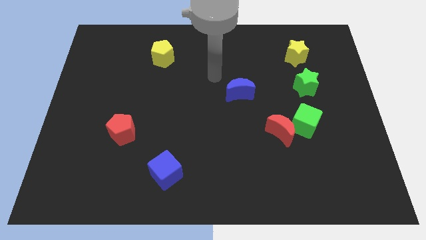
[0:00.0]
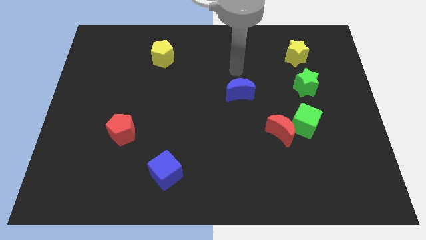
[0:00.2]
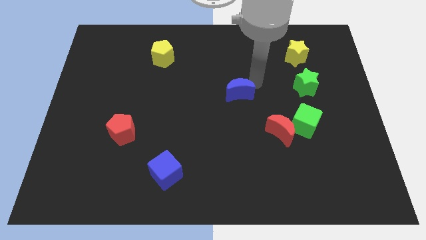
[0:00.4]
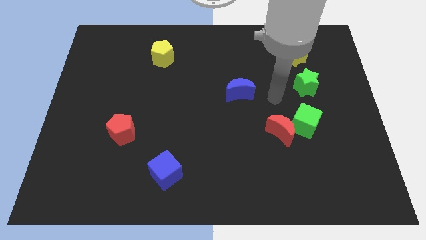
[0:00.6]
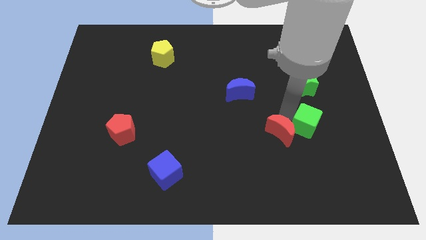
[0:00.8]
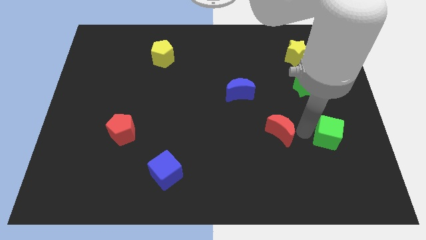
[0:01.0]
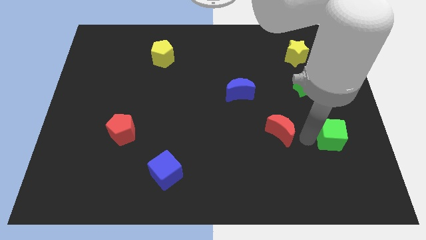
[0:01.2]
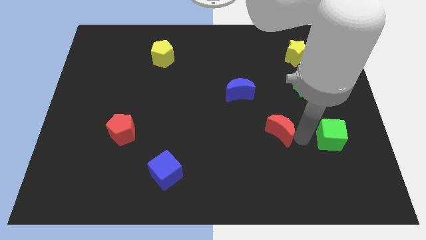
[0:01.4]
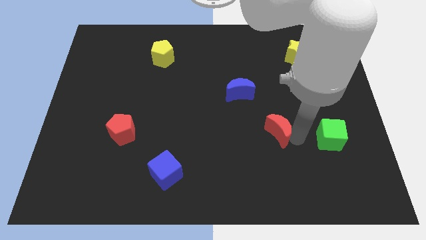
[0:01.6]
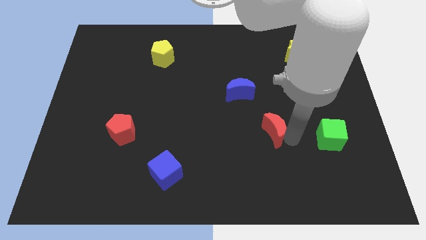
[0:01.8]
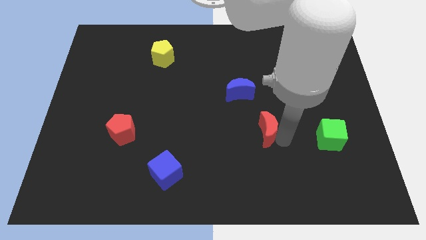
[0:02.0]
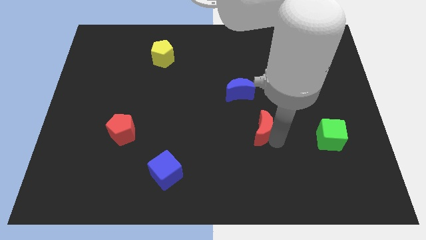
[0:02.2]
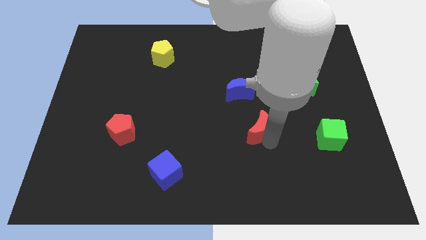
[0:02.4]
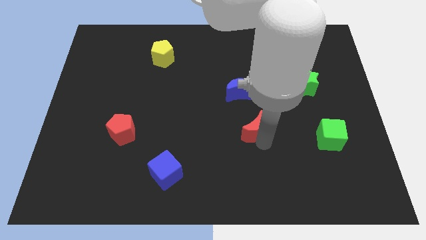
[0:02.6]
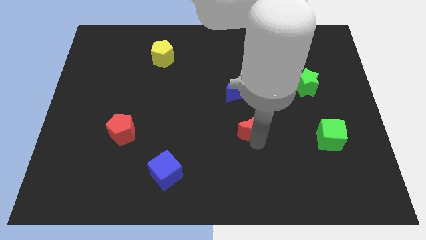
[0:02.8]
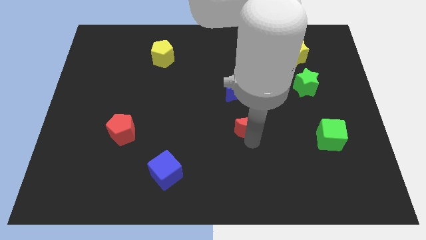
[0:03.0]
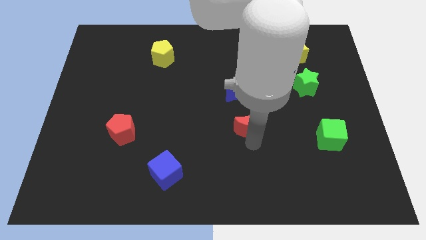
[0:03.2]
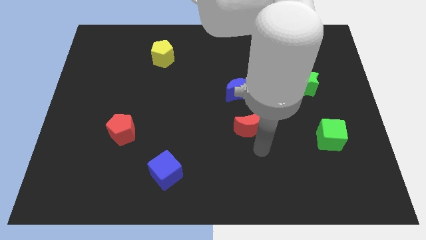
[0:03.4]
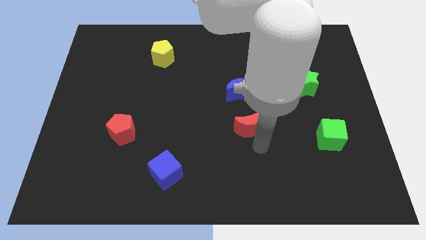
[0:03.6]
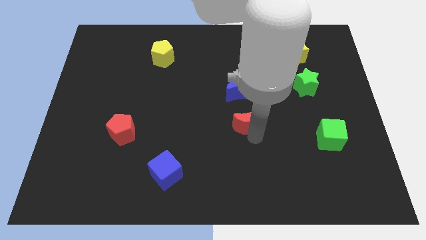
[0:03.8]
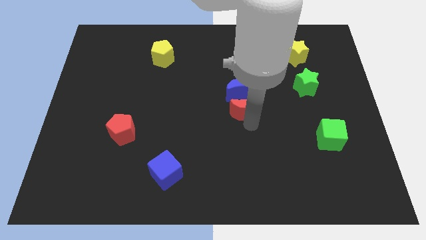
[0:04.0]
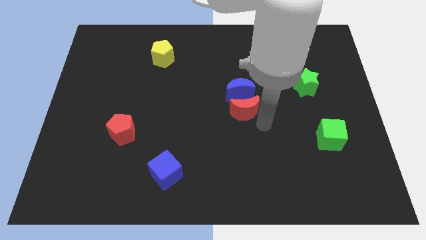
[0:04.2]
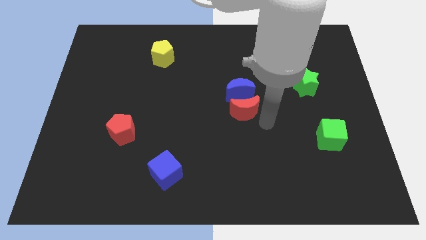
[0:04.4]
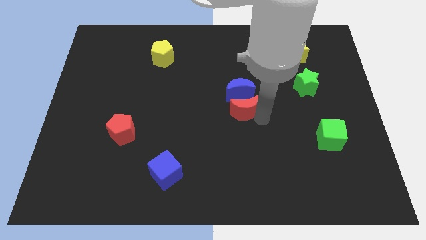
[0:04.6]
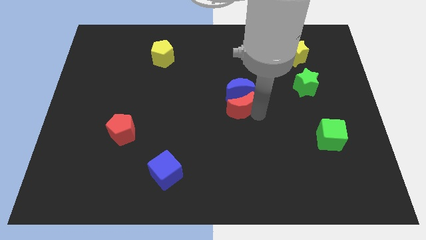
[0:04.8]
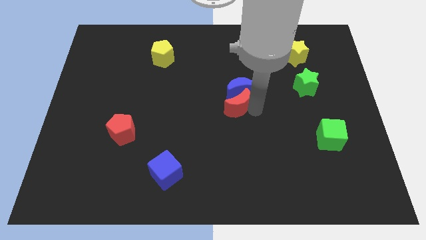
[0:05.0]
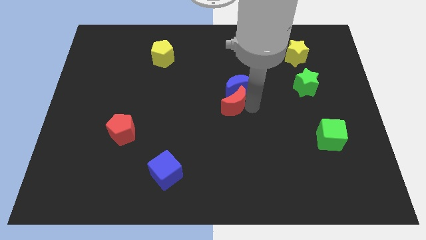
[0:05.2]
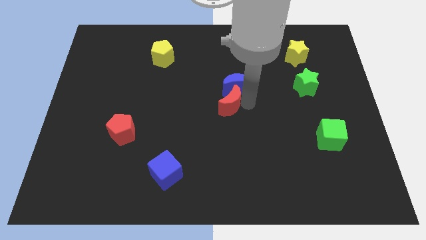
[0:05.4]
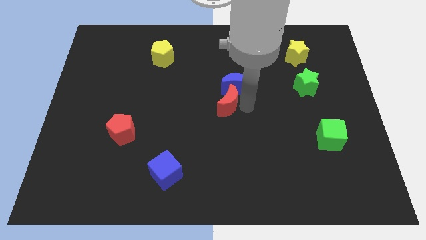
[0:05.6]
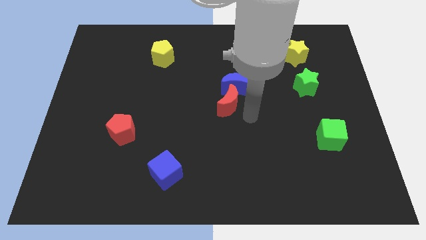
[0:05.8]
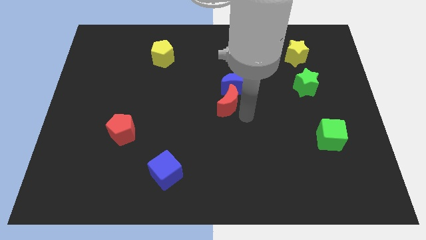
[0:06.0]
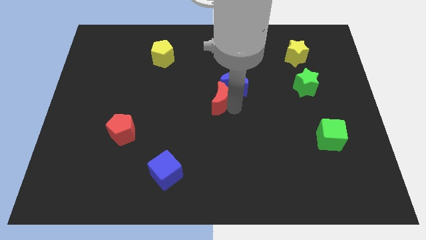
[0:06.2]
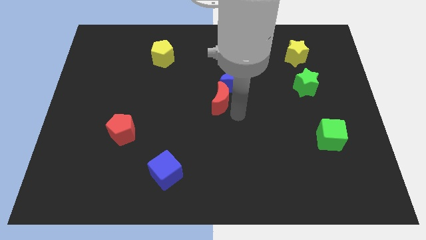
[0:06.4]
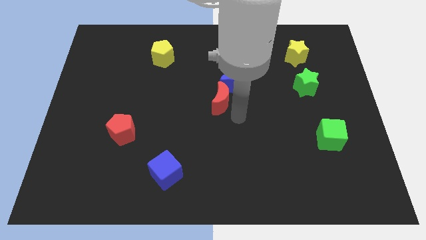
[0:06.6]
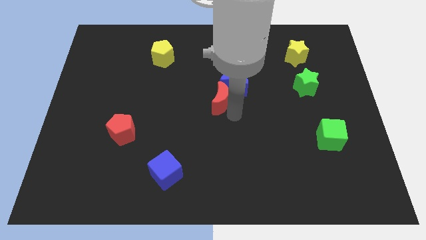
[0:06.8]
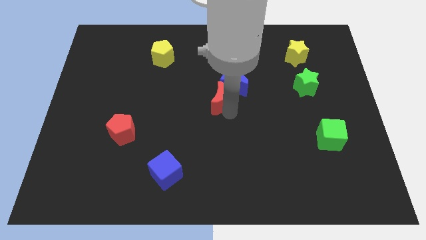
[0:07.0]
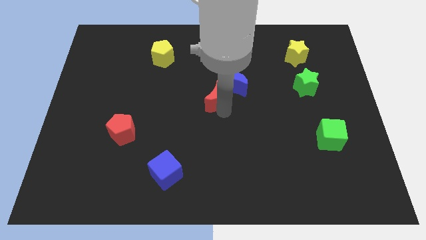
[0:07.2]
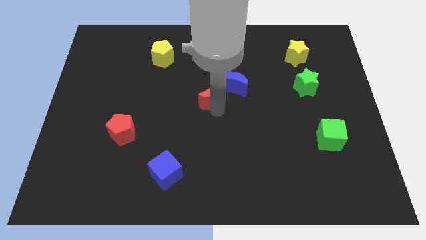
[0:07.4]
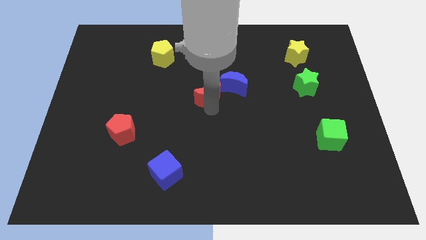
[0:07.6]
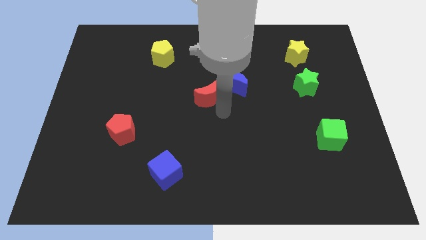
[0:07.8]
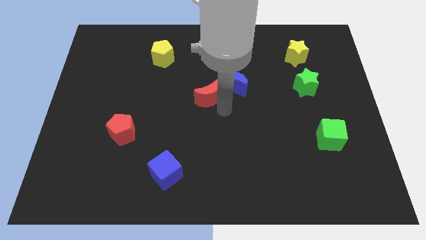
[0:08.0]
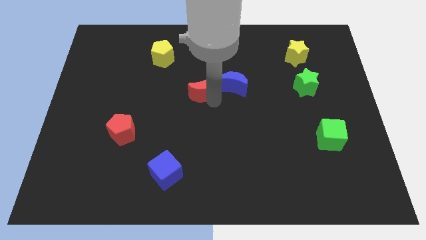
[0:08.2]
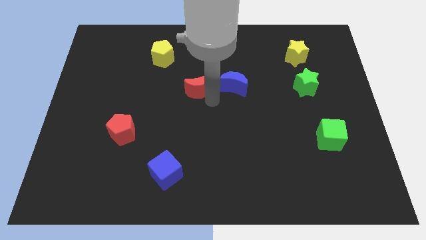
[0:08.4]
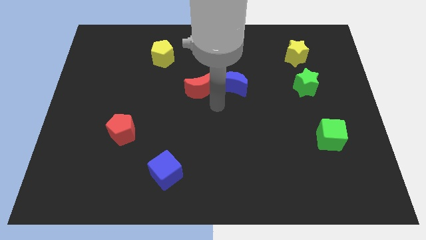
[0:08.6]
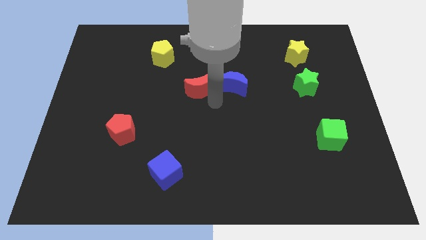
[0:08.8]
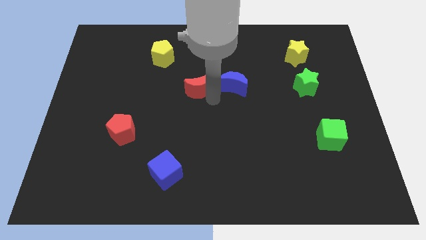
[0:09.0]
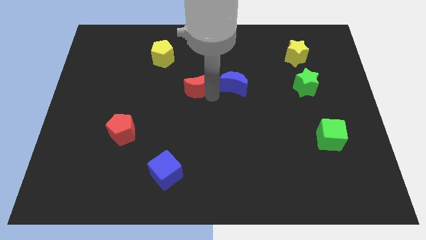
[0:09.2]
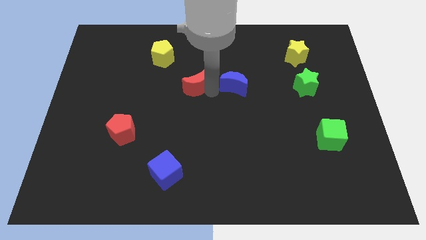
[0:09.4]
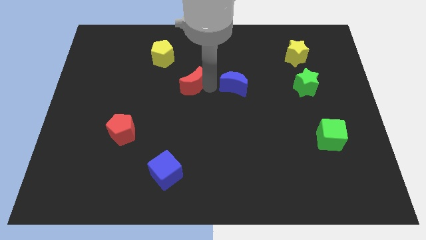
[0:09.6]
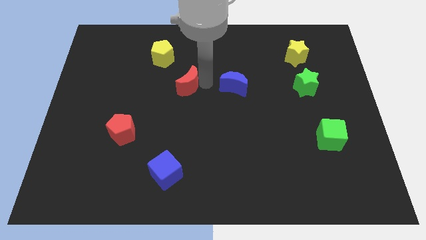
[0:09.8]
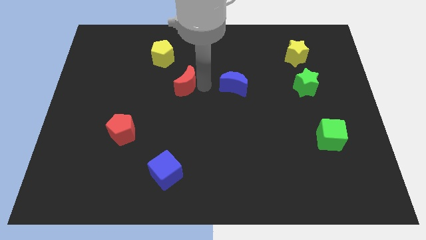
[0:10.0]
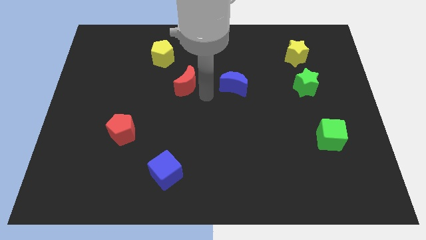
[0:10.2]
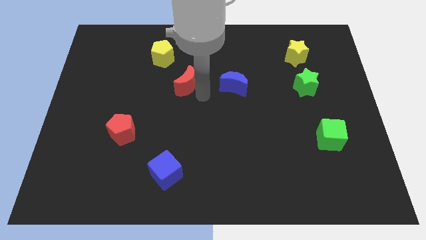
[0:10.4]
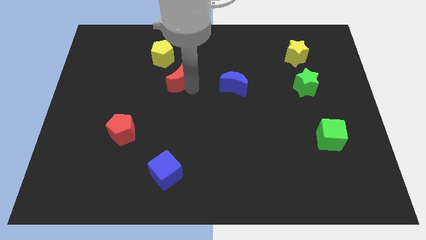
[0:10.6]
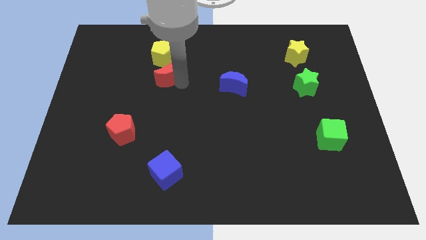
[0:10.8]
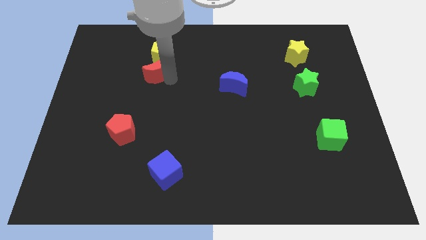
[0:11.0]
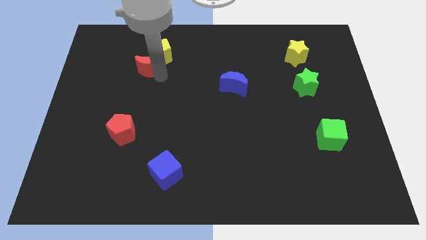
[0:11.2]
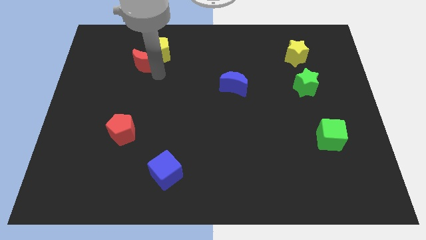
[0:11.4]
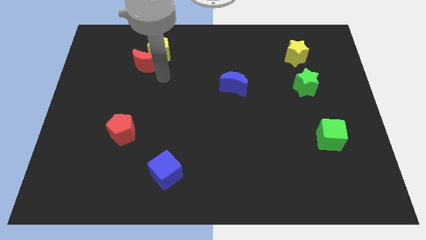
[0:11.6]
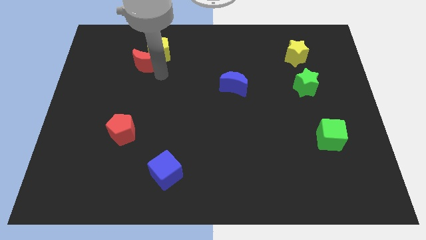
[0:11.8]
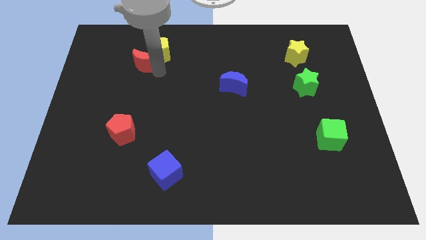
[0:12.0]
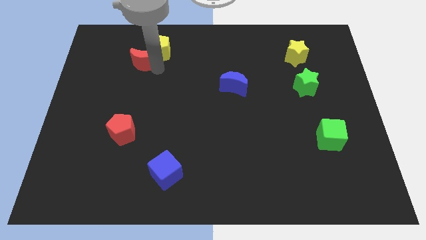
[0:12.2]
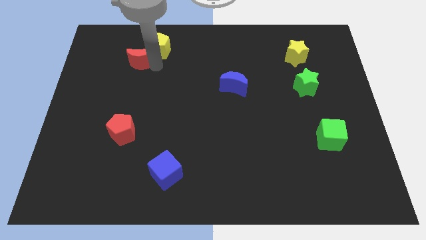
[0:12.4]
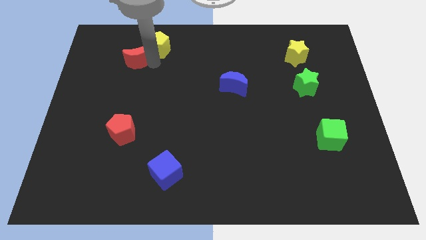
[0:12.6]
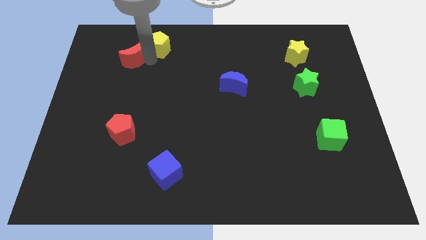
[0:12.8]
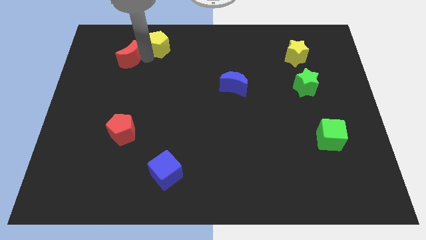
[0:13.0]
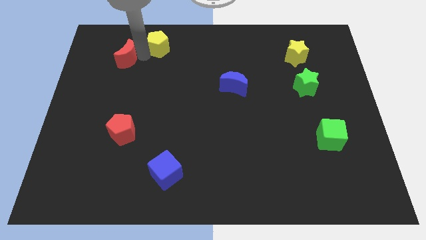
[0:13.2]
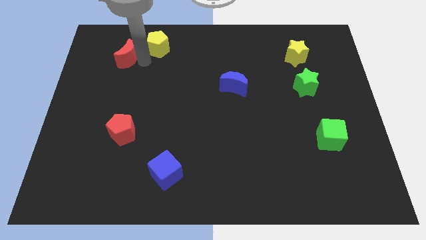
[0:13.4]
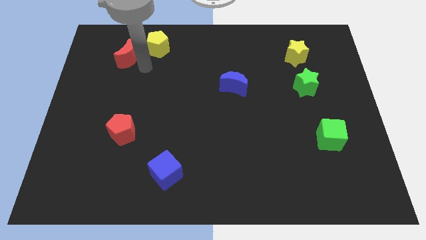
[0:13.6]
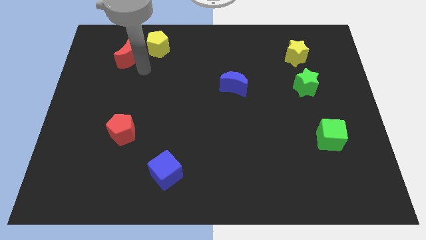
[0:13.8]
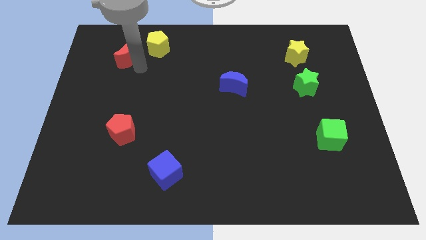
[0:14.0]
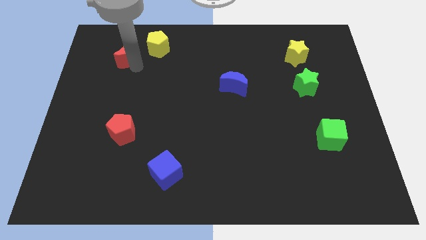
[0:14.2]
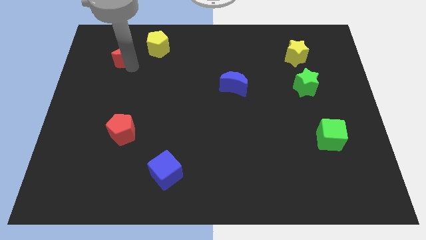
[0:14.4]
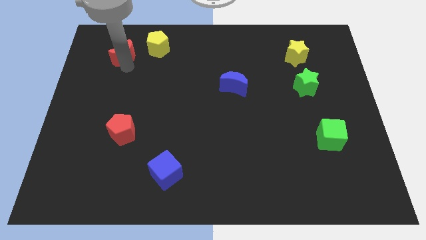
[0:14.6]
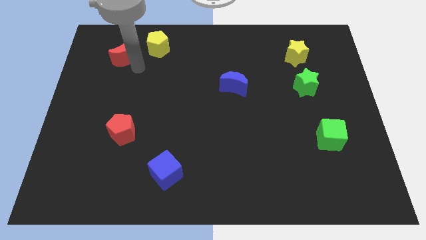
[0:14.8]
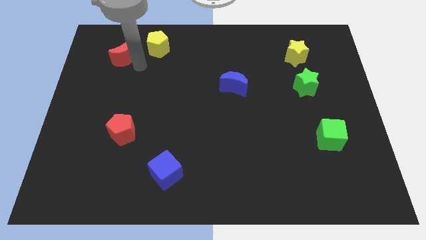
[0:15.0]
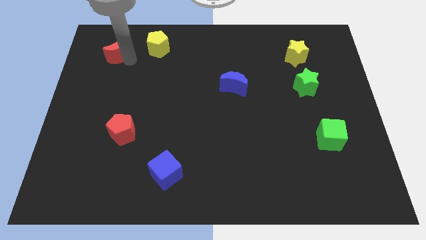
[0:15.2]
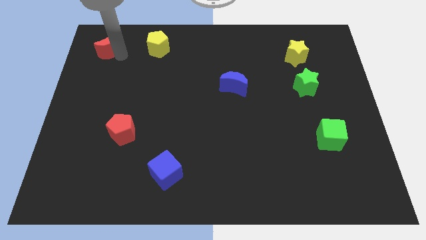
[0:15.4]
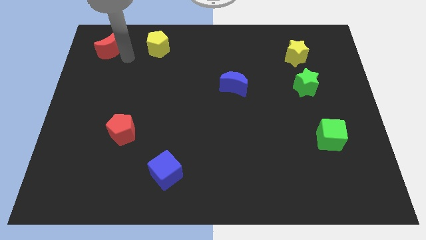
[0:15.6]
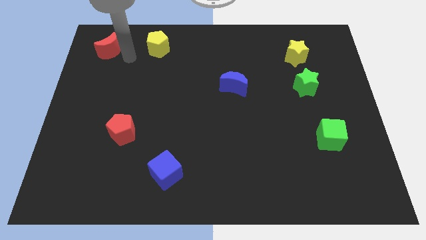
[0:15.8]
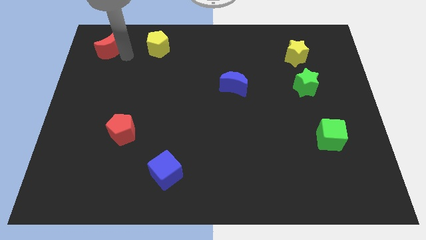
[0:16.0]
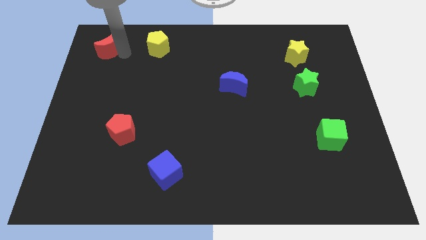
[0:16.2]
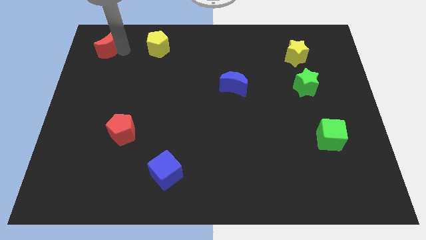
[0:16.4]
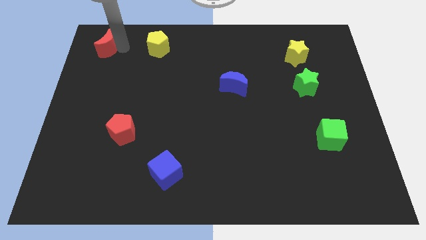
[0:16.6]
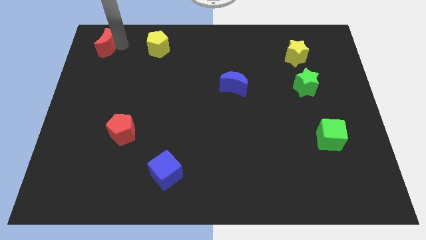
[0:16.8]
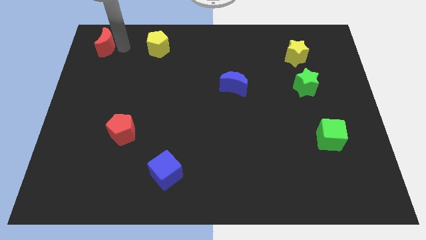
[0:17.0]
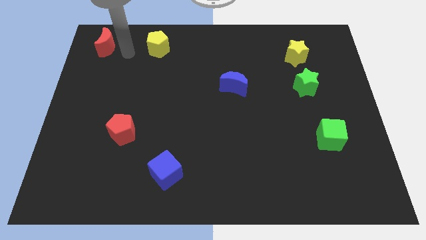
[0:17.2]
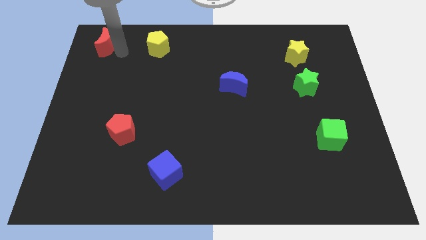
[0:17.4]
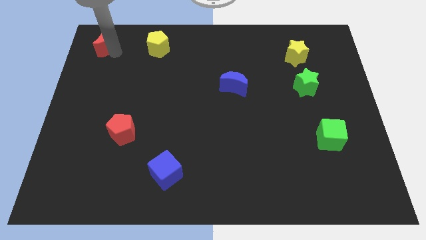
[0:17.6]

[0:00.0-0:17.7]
put the red moon to the top left corner
